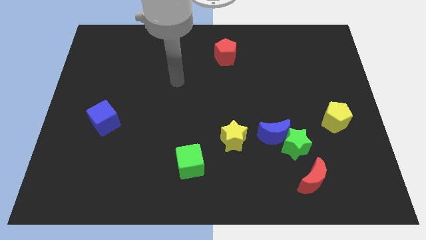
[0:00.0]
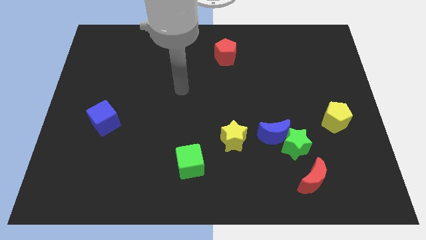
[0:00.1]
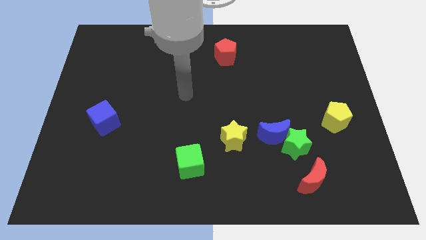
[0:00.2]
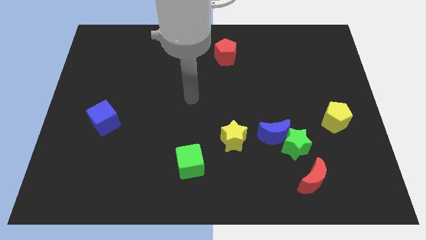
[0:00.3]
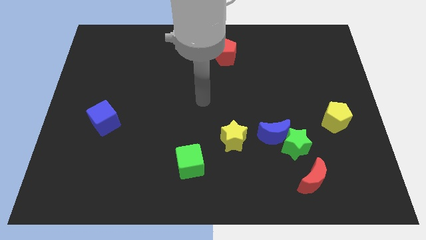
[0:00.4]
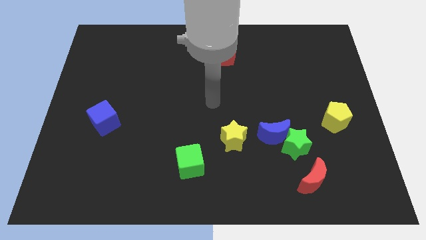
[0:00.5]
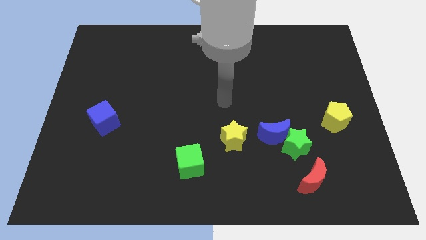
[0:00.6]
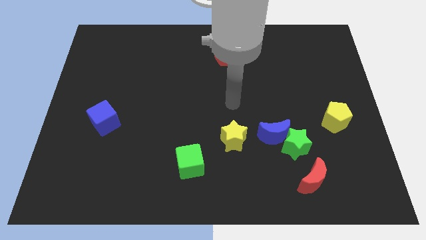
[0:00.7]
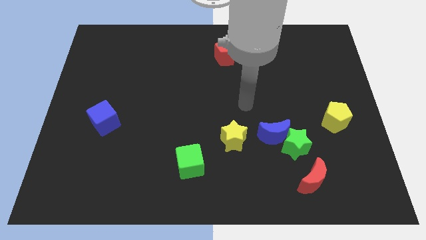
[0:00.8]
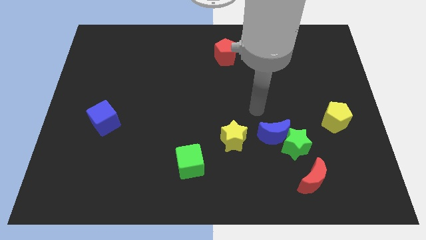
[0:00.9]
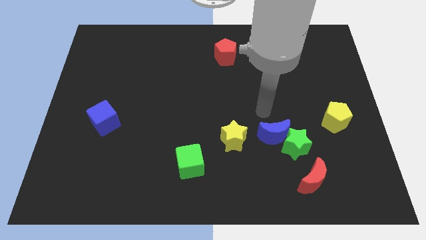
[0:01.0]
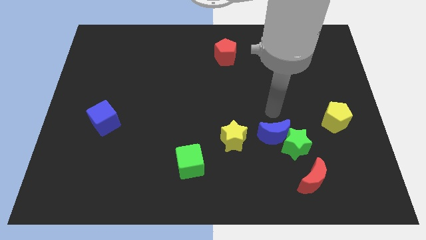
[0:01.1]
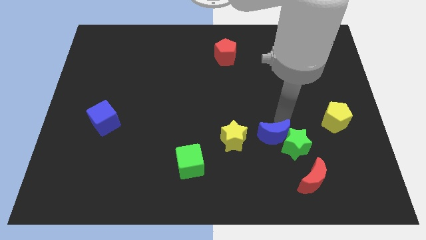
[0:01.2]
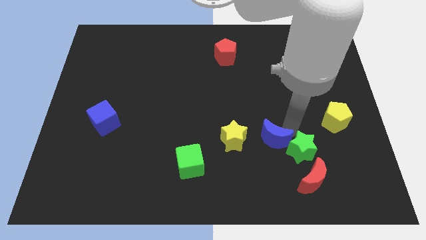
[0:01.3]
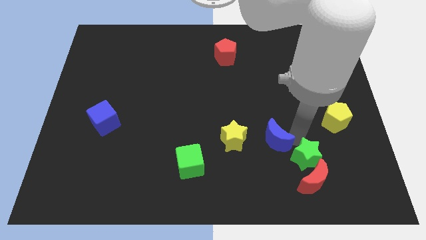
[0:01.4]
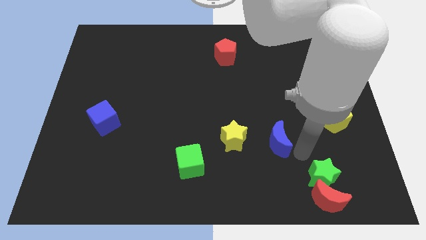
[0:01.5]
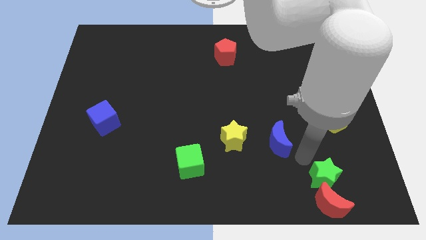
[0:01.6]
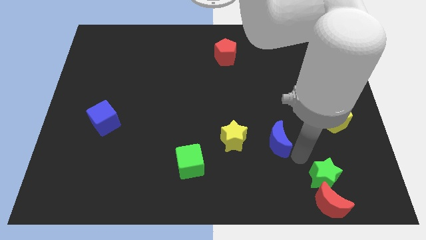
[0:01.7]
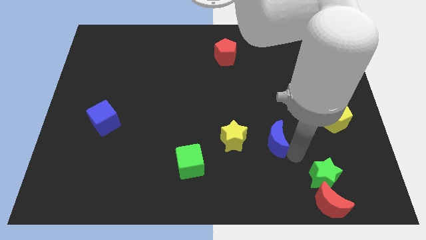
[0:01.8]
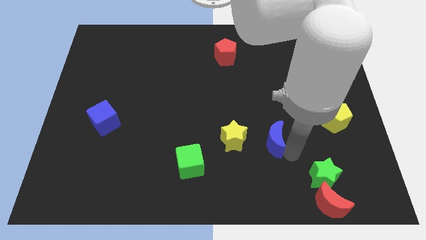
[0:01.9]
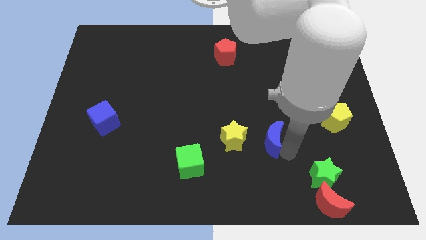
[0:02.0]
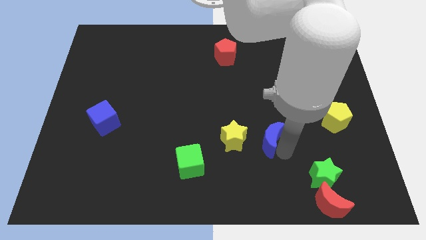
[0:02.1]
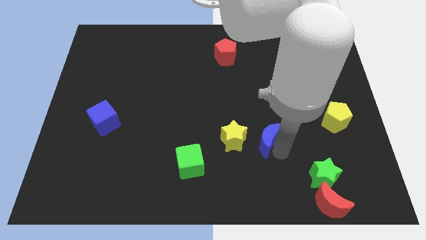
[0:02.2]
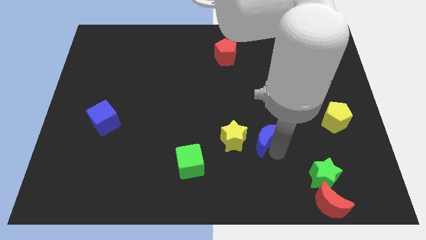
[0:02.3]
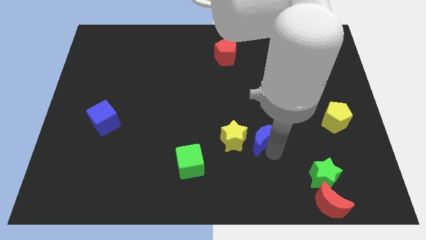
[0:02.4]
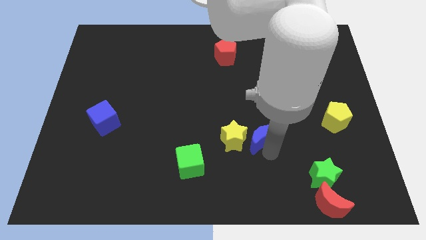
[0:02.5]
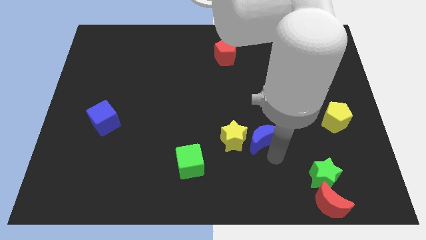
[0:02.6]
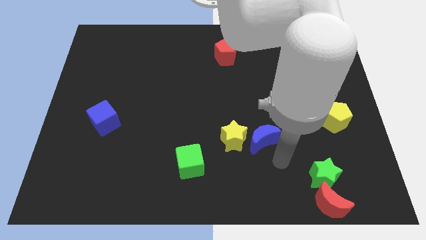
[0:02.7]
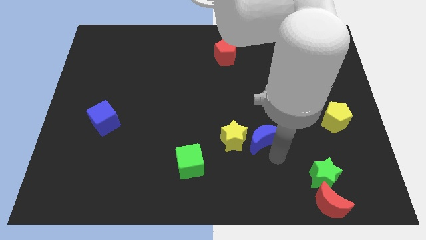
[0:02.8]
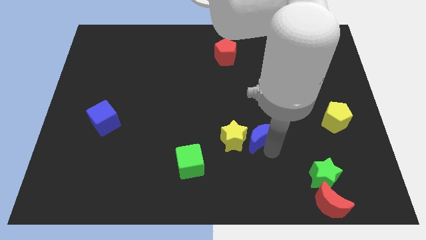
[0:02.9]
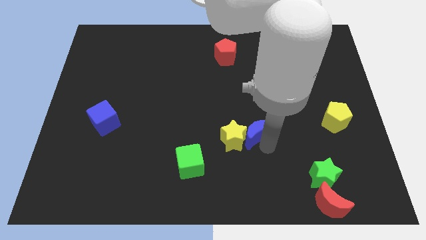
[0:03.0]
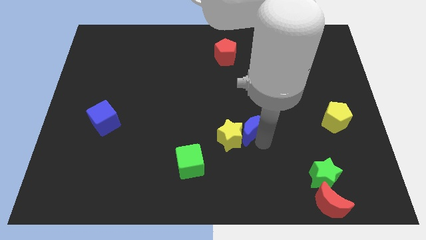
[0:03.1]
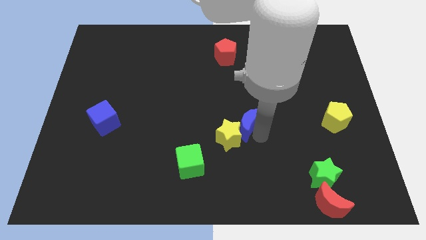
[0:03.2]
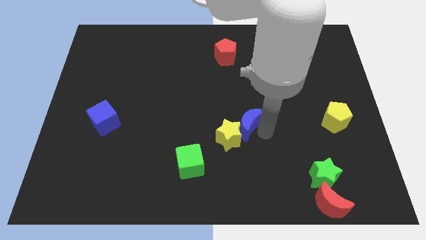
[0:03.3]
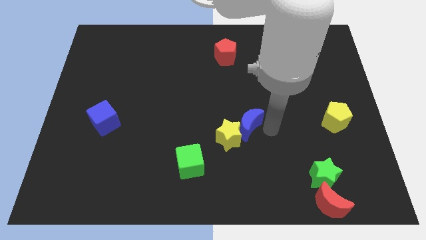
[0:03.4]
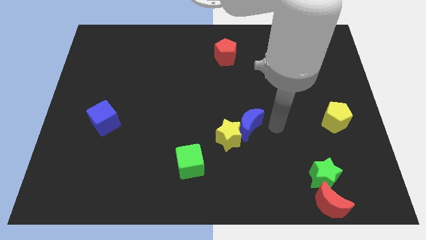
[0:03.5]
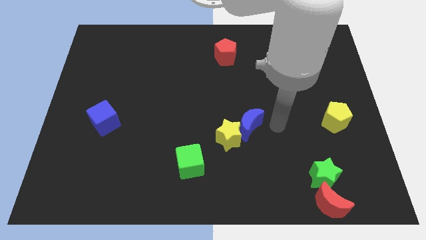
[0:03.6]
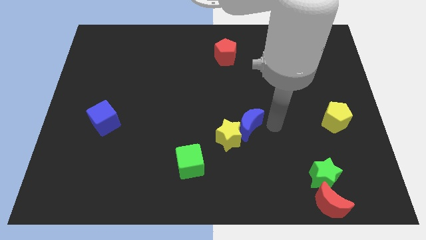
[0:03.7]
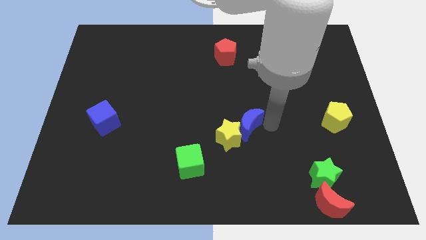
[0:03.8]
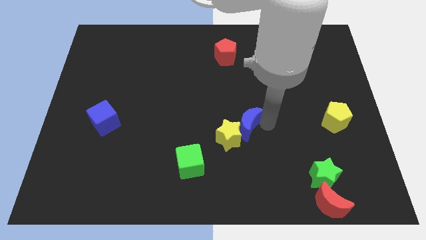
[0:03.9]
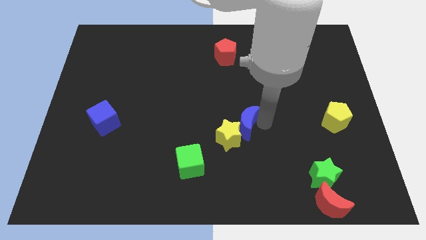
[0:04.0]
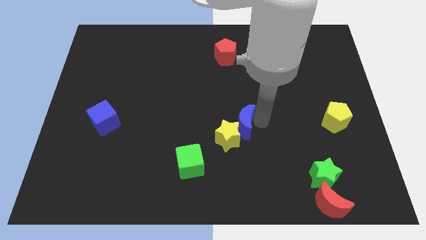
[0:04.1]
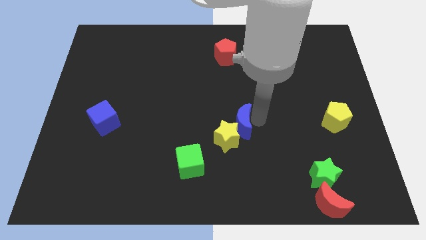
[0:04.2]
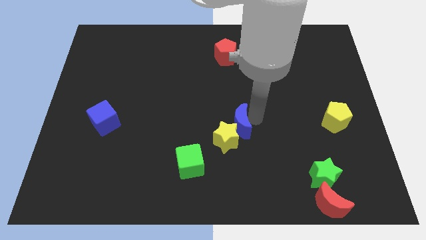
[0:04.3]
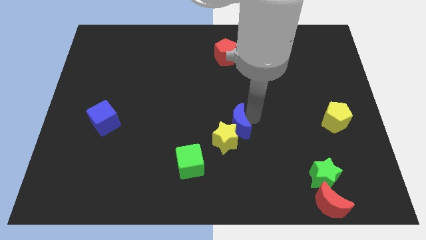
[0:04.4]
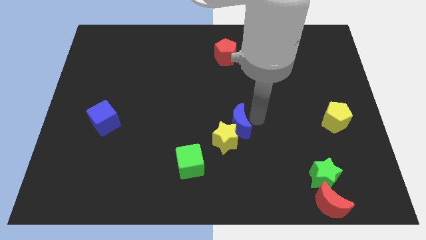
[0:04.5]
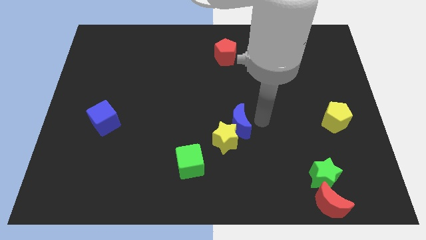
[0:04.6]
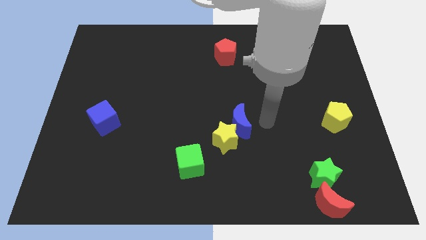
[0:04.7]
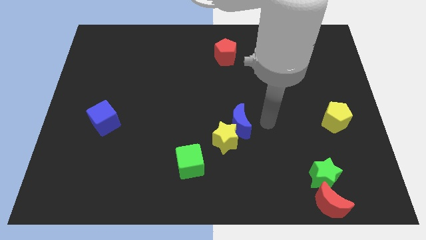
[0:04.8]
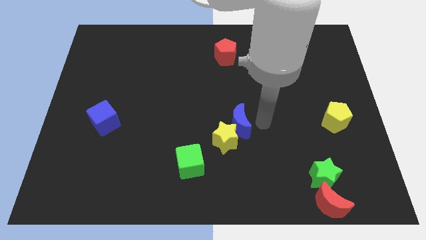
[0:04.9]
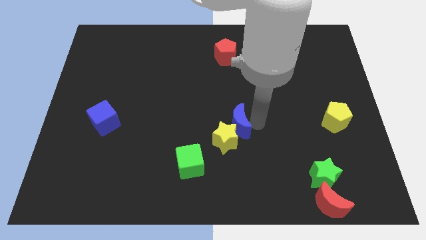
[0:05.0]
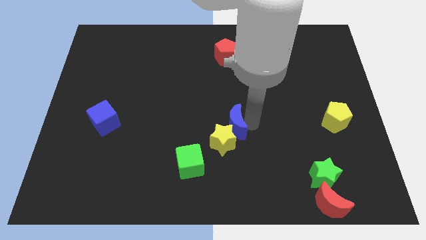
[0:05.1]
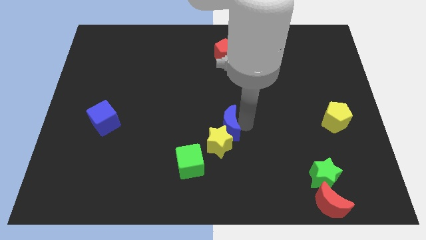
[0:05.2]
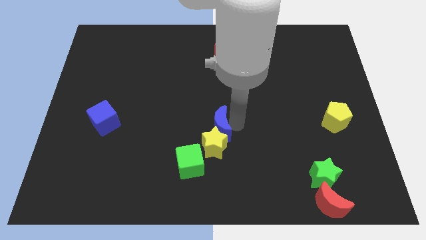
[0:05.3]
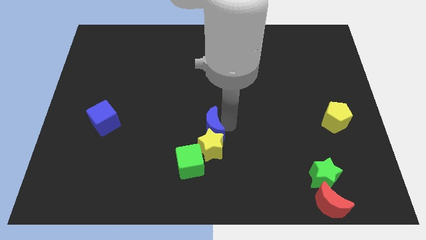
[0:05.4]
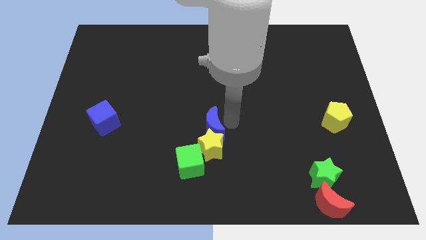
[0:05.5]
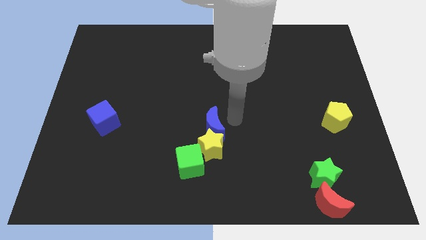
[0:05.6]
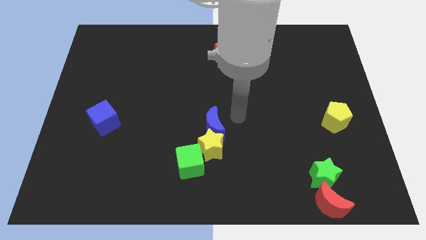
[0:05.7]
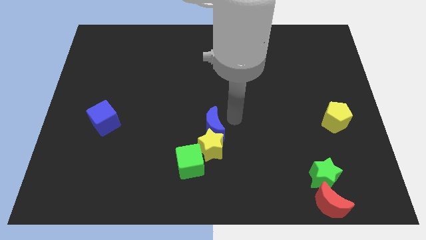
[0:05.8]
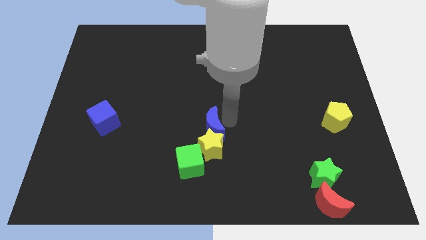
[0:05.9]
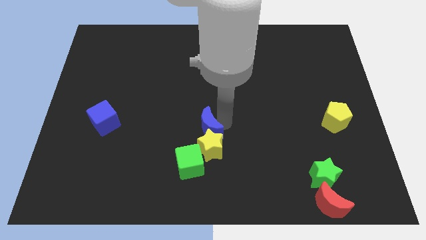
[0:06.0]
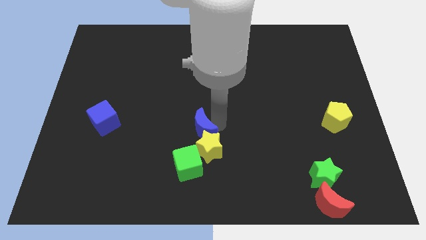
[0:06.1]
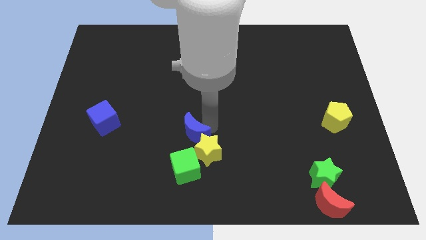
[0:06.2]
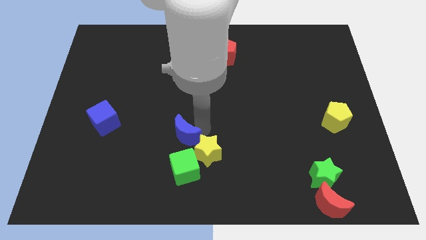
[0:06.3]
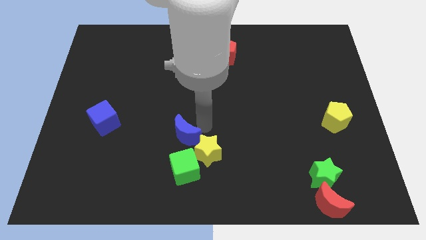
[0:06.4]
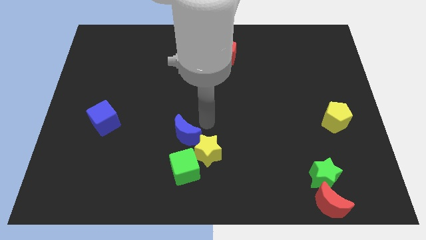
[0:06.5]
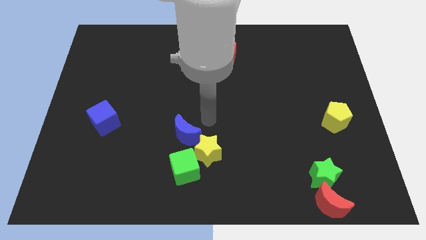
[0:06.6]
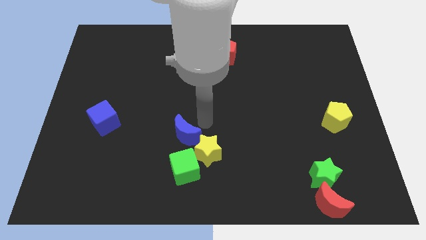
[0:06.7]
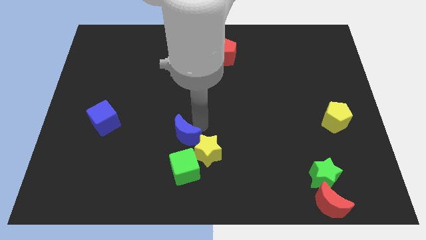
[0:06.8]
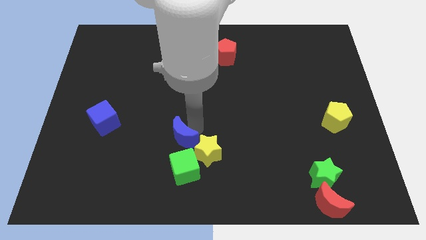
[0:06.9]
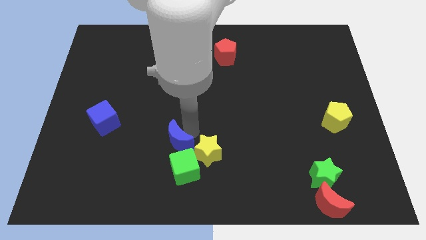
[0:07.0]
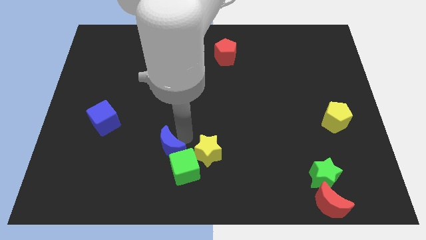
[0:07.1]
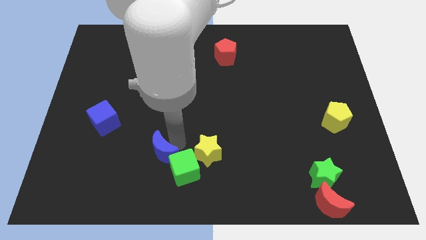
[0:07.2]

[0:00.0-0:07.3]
move the blue moon just left of the green cube

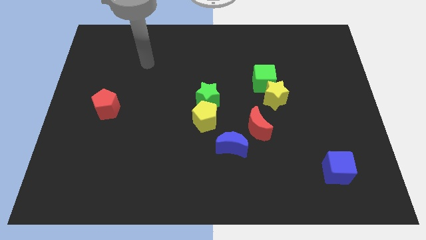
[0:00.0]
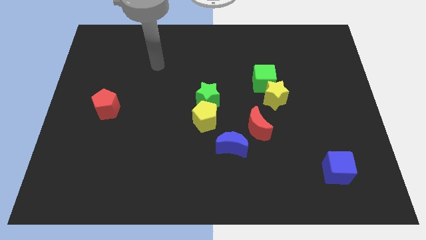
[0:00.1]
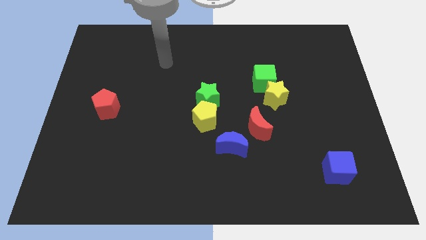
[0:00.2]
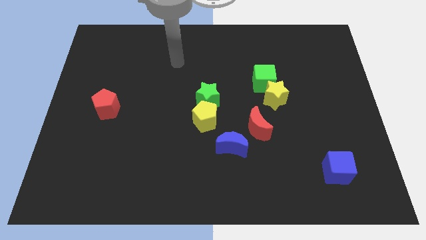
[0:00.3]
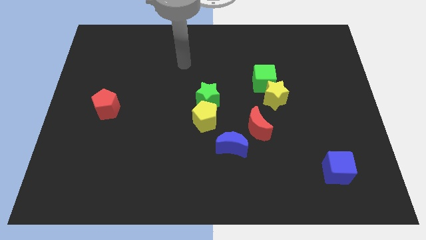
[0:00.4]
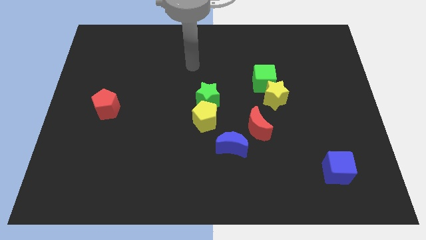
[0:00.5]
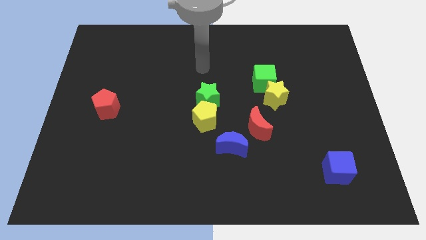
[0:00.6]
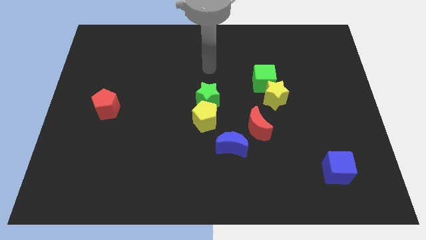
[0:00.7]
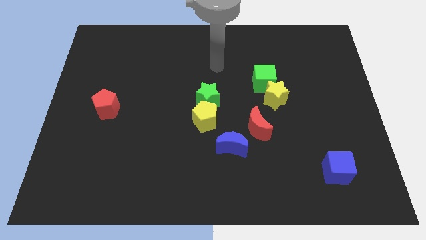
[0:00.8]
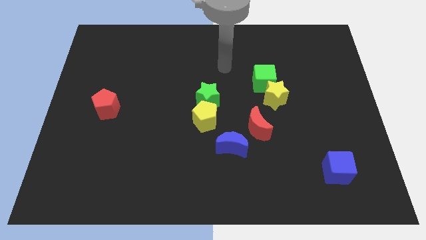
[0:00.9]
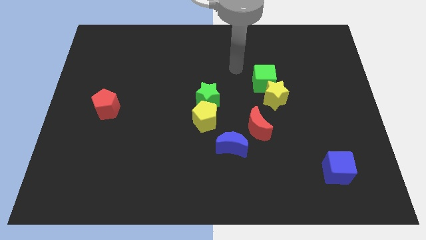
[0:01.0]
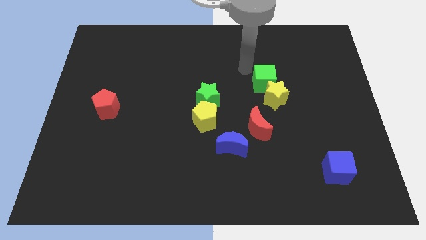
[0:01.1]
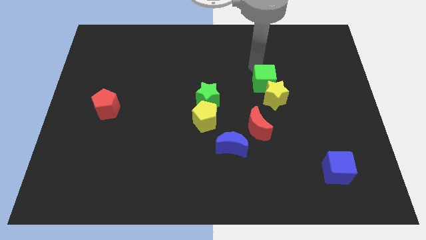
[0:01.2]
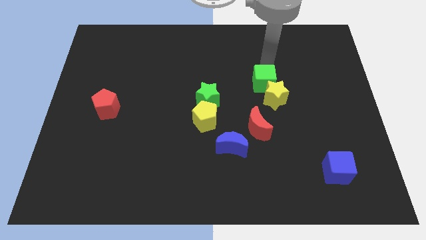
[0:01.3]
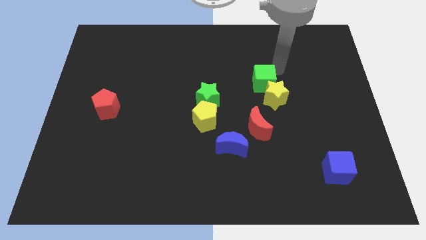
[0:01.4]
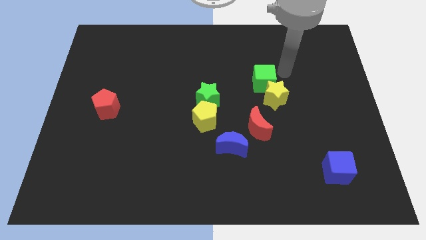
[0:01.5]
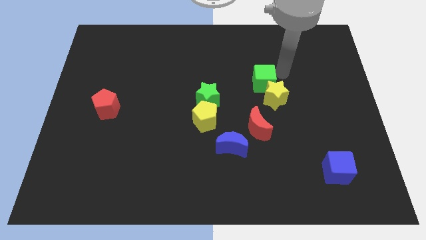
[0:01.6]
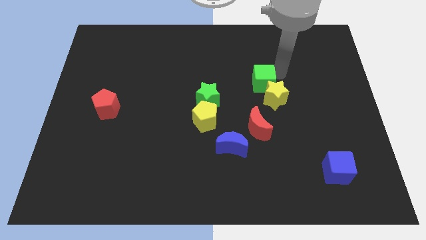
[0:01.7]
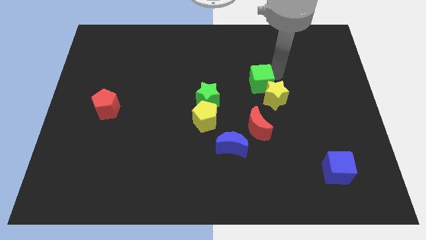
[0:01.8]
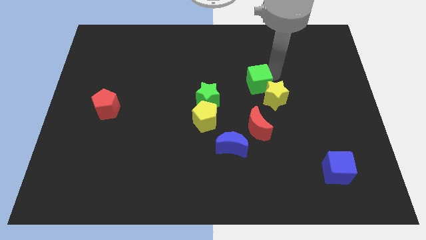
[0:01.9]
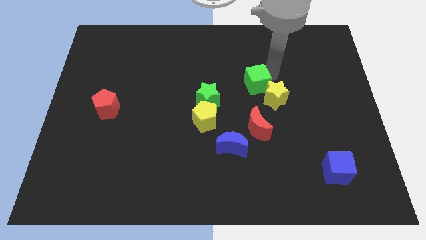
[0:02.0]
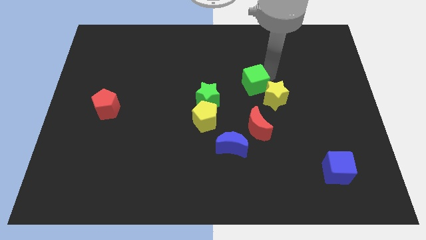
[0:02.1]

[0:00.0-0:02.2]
move the green cube left of the yellow star
